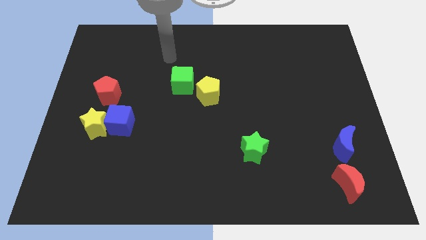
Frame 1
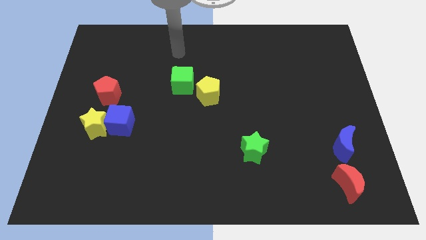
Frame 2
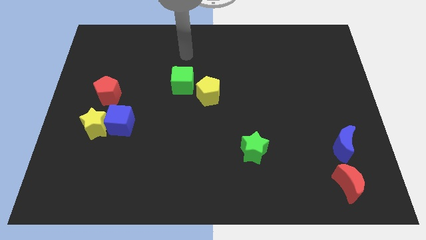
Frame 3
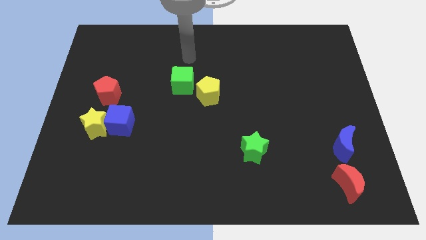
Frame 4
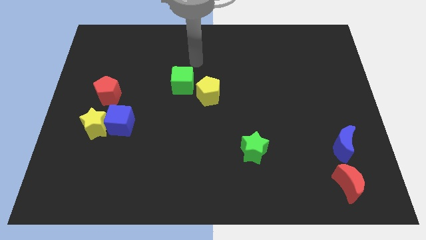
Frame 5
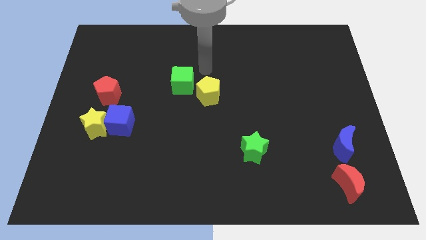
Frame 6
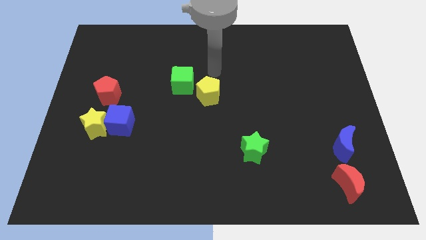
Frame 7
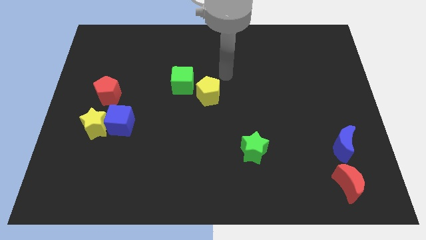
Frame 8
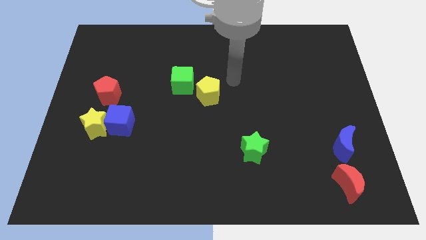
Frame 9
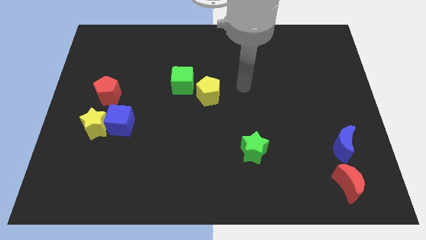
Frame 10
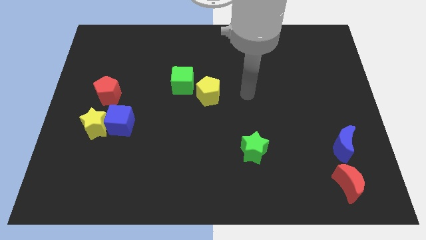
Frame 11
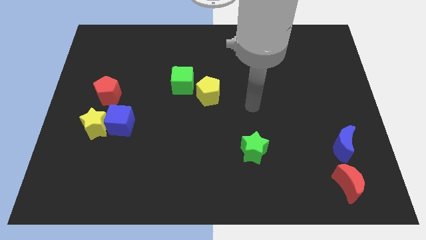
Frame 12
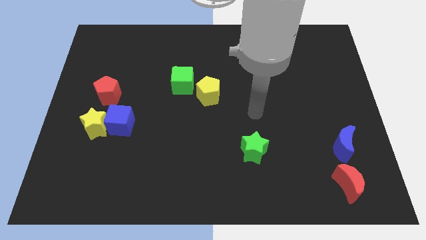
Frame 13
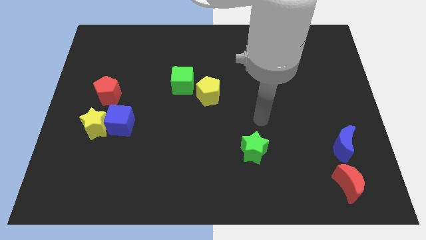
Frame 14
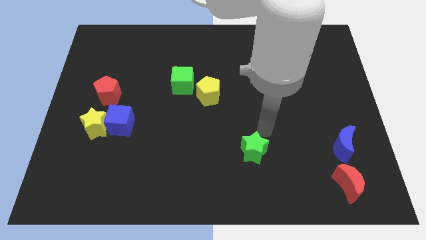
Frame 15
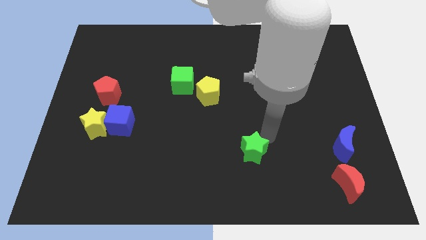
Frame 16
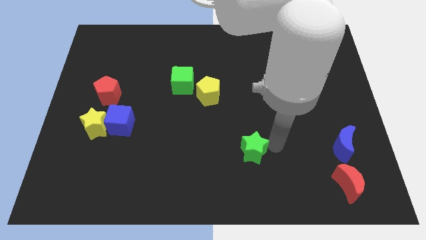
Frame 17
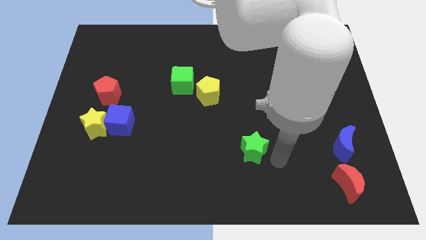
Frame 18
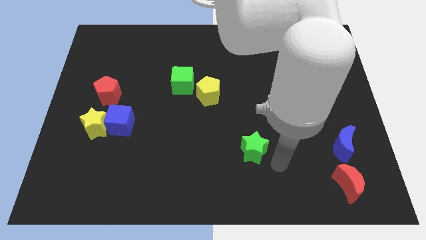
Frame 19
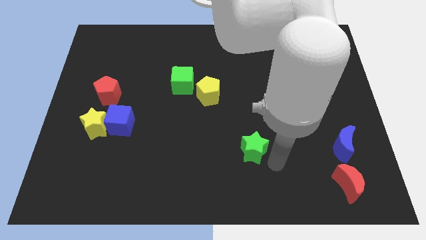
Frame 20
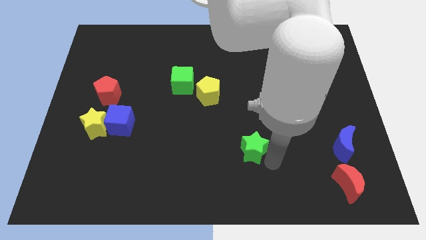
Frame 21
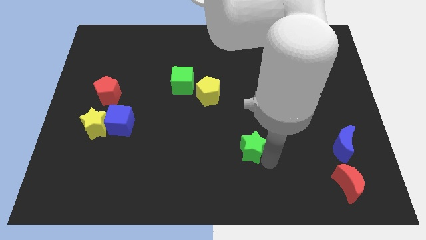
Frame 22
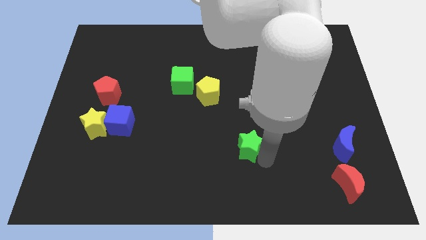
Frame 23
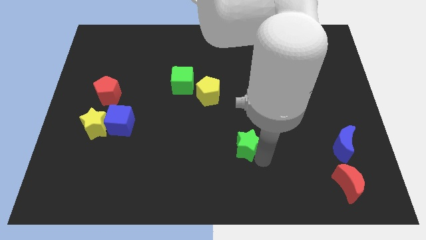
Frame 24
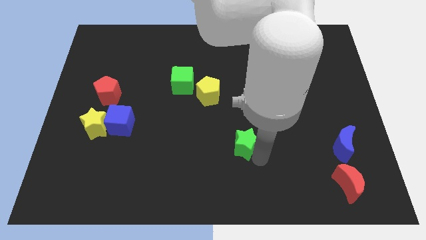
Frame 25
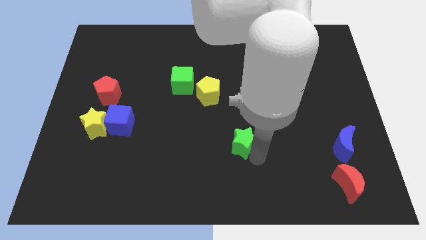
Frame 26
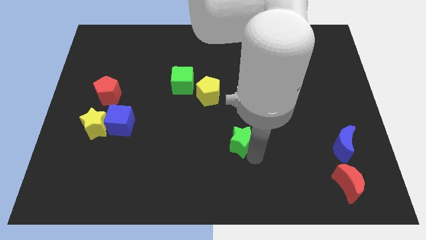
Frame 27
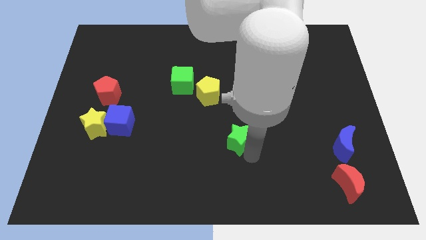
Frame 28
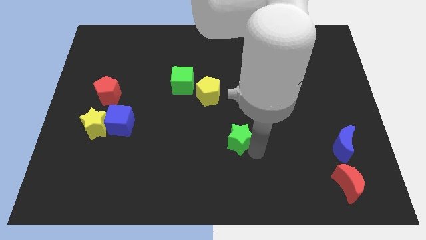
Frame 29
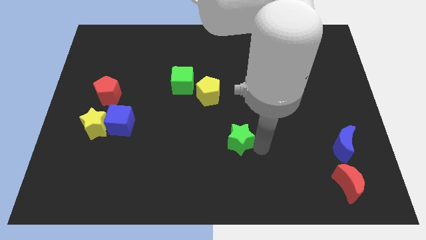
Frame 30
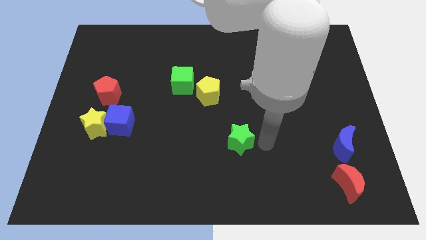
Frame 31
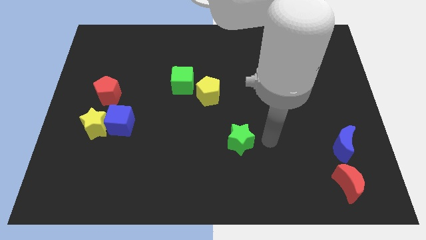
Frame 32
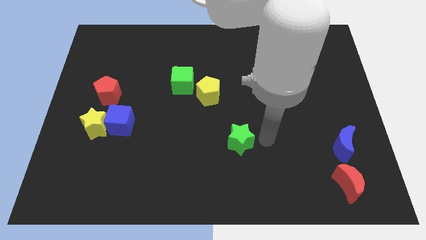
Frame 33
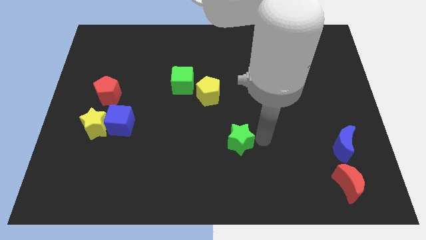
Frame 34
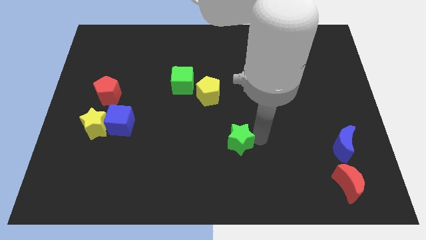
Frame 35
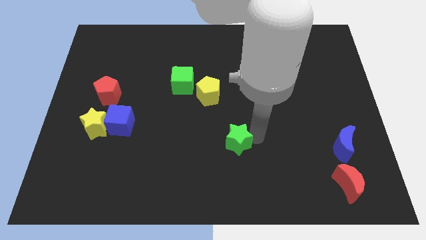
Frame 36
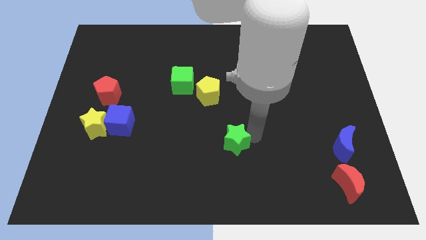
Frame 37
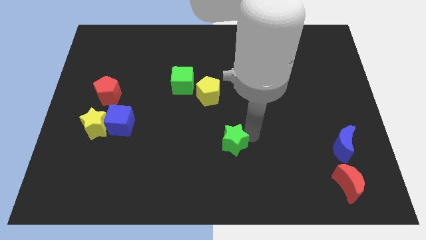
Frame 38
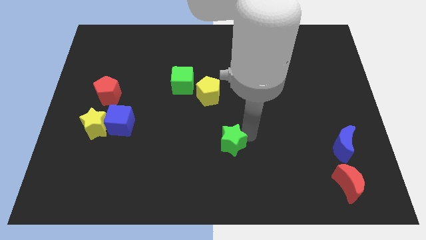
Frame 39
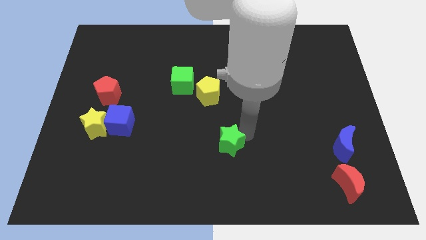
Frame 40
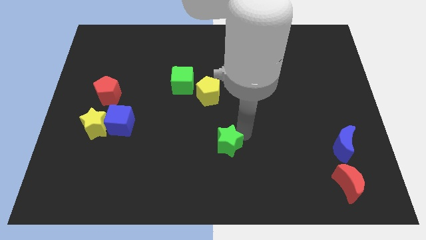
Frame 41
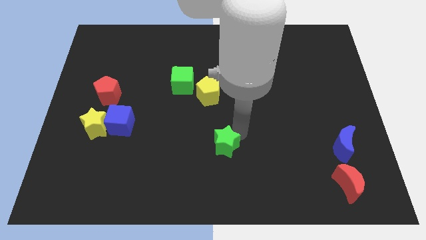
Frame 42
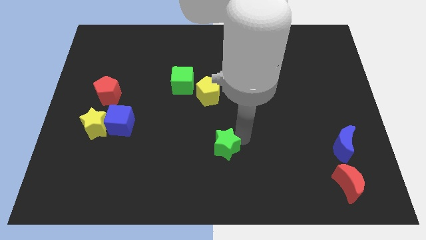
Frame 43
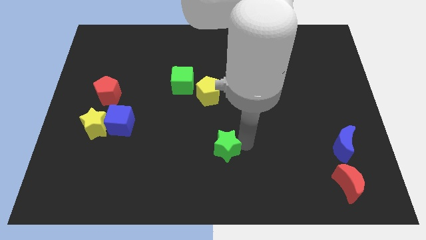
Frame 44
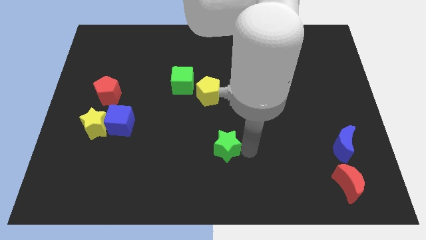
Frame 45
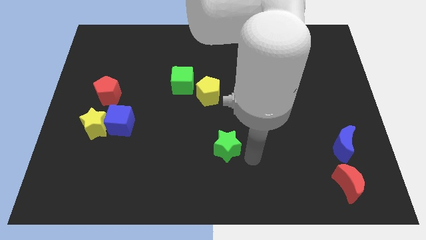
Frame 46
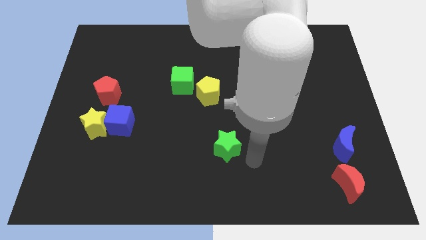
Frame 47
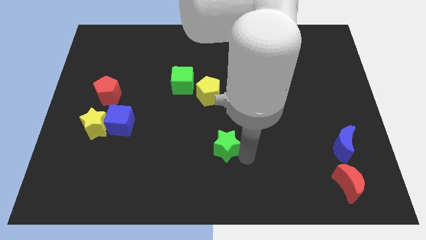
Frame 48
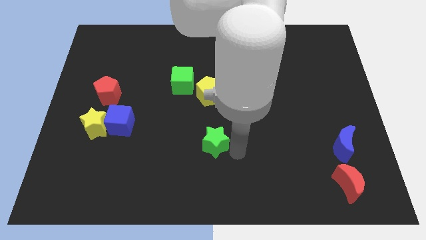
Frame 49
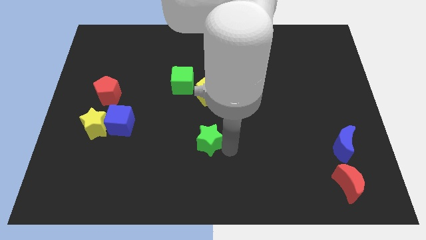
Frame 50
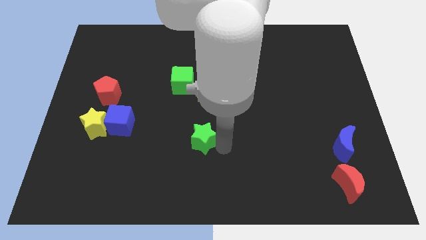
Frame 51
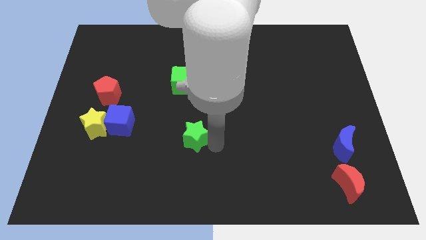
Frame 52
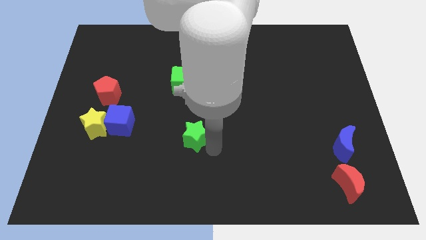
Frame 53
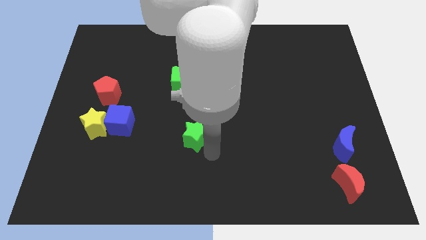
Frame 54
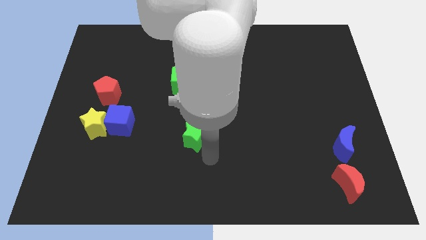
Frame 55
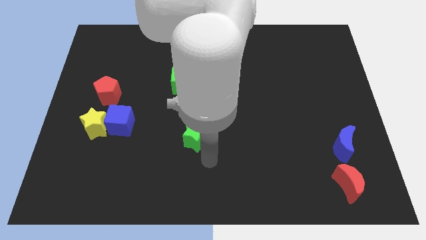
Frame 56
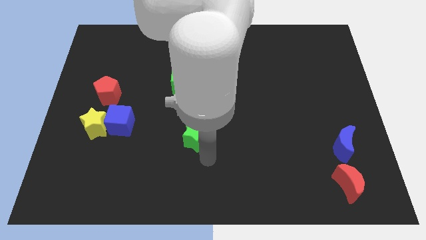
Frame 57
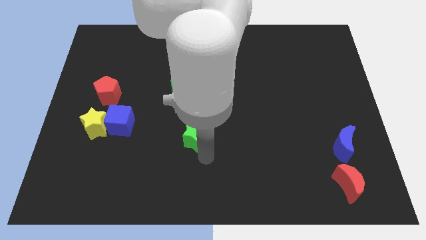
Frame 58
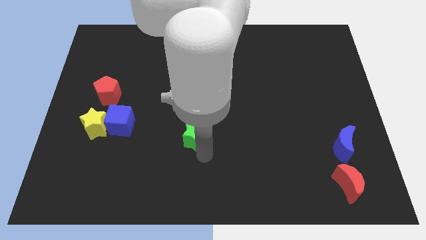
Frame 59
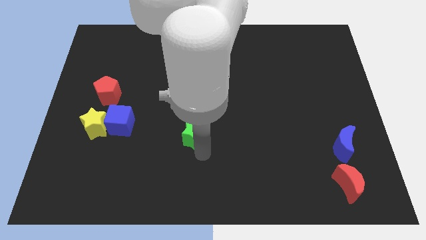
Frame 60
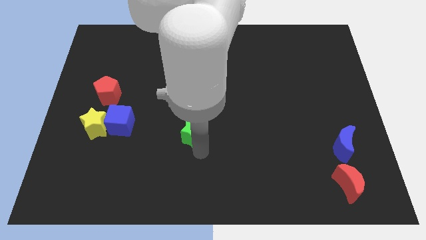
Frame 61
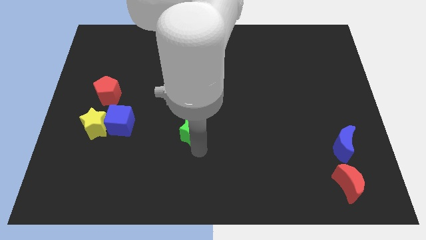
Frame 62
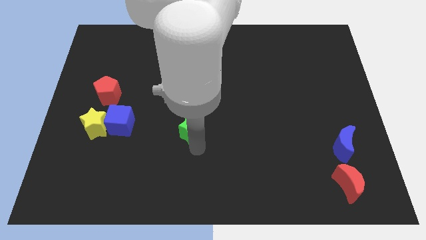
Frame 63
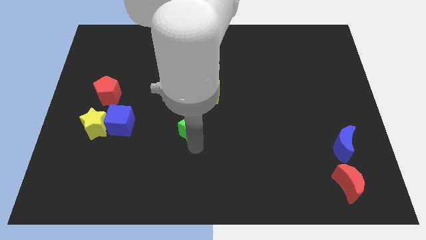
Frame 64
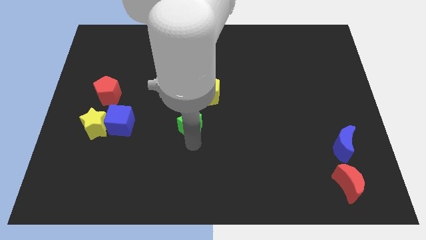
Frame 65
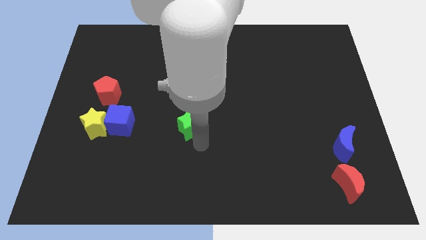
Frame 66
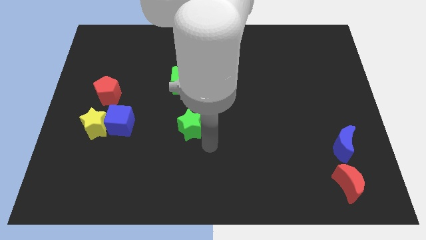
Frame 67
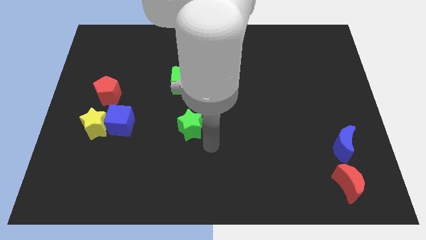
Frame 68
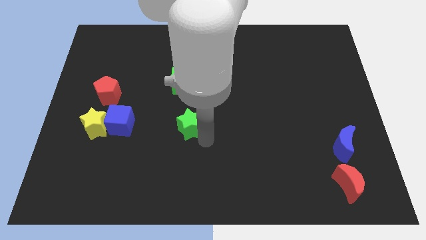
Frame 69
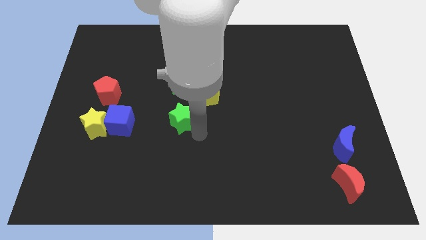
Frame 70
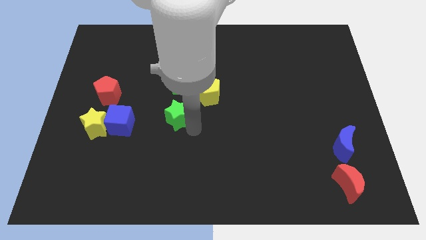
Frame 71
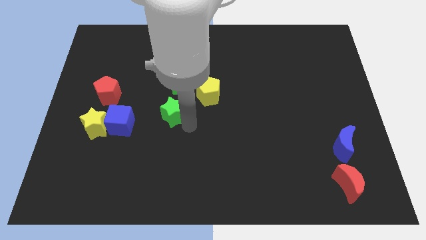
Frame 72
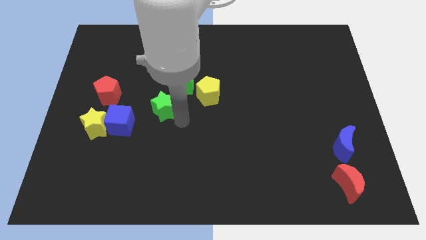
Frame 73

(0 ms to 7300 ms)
push the green star diagonally upwards and to the left

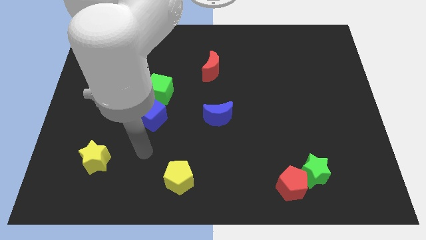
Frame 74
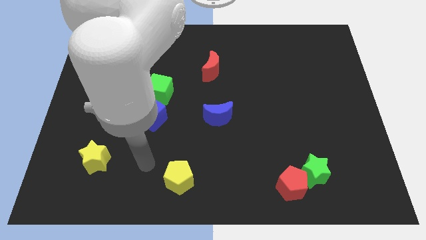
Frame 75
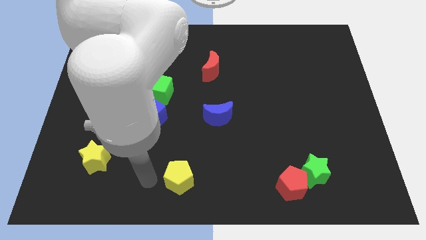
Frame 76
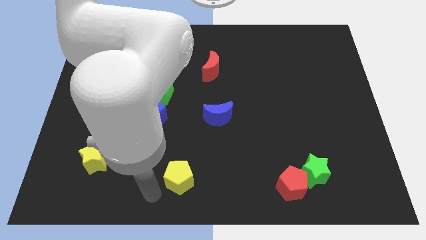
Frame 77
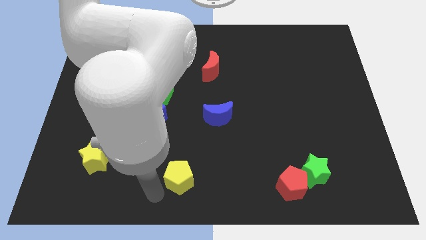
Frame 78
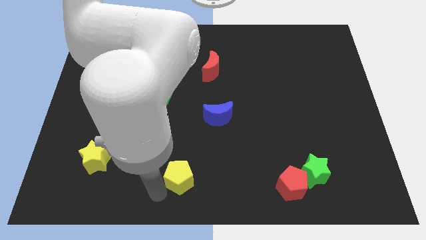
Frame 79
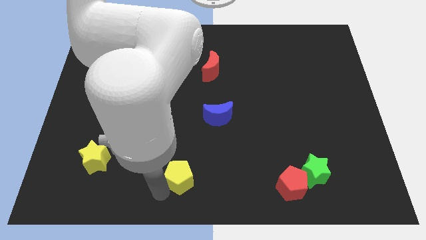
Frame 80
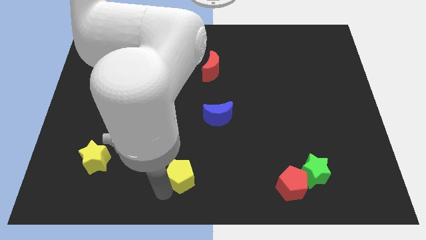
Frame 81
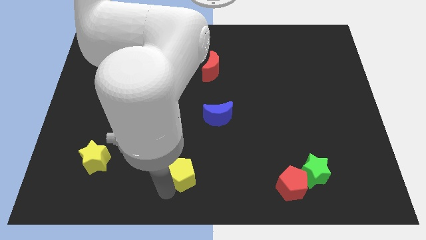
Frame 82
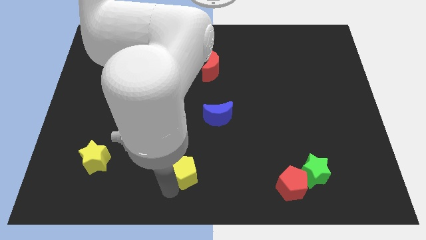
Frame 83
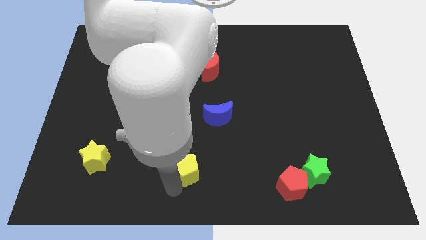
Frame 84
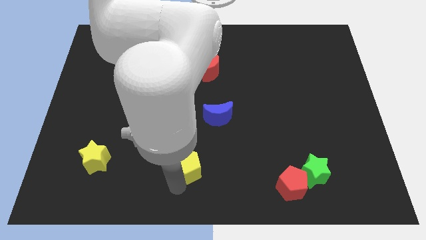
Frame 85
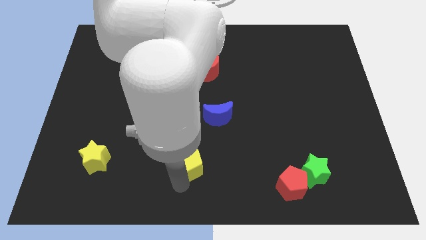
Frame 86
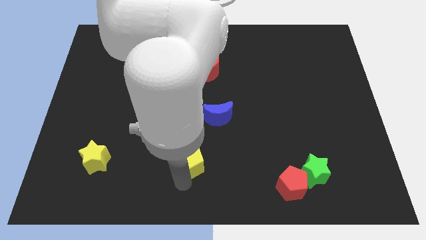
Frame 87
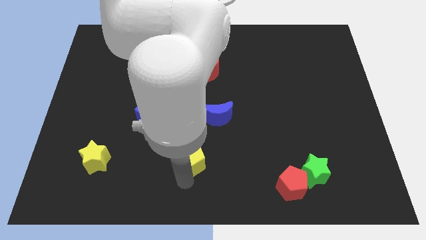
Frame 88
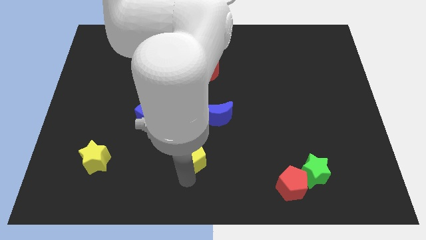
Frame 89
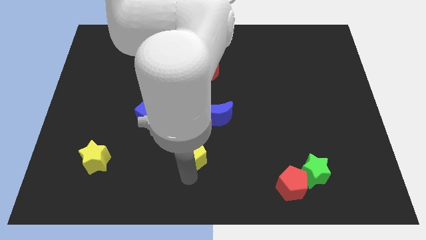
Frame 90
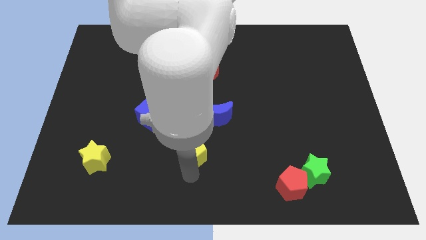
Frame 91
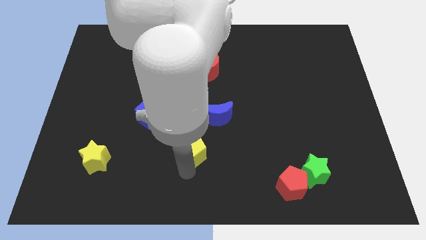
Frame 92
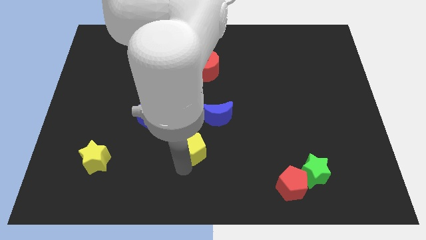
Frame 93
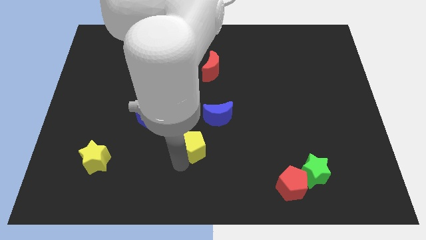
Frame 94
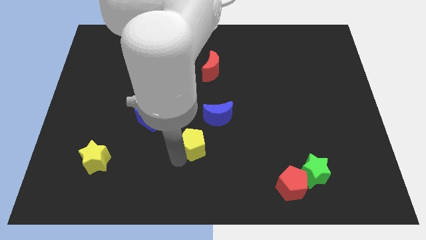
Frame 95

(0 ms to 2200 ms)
slide the yellow pentagon slightly up and right diagonally
